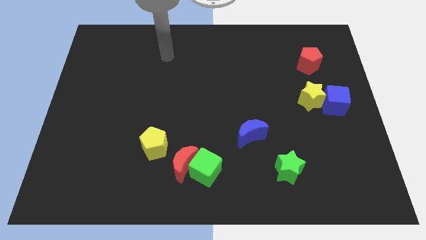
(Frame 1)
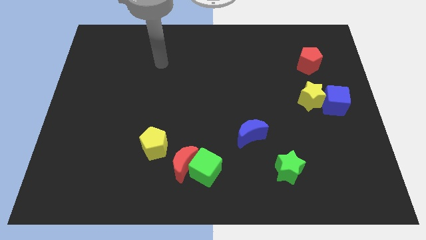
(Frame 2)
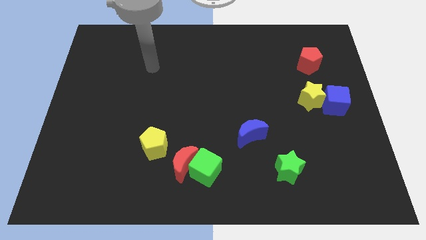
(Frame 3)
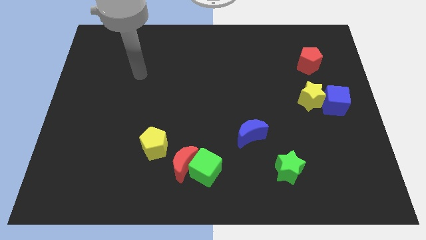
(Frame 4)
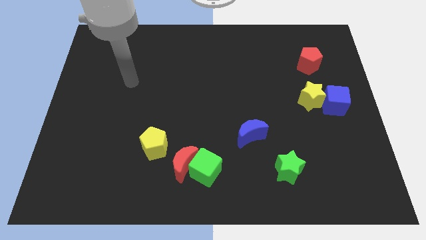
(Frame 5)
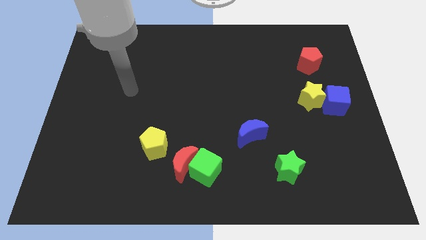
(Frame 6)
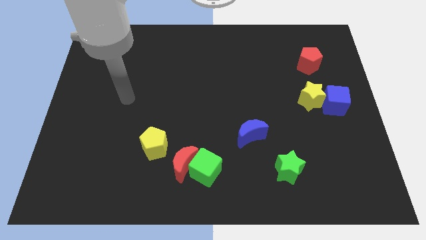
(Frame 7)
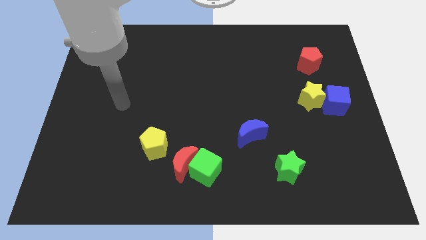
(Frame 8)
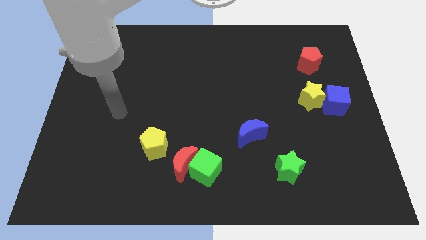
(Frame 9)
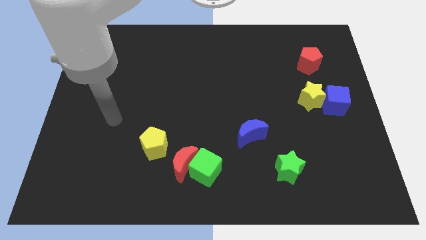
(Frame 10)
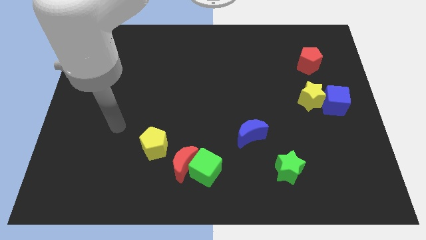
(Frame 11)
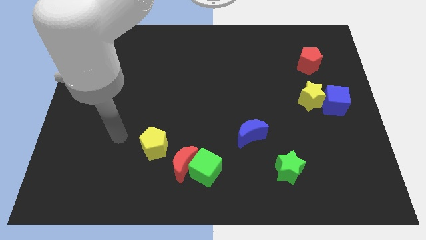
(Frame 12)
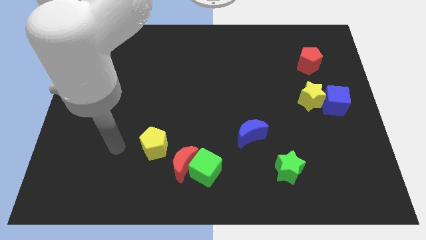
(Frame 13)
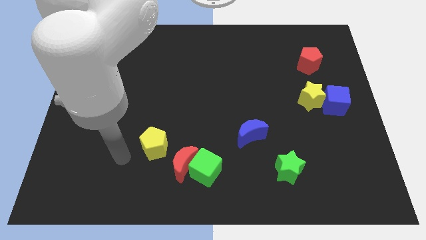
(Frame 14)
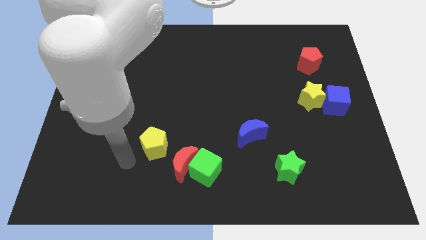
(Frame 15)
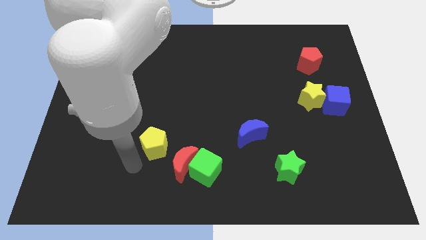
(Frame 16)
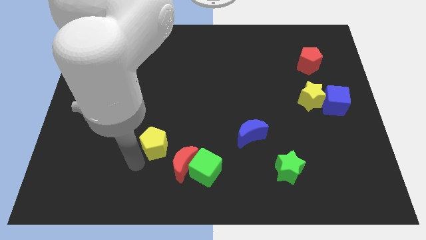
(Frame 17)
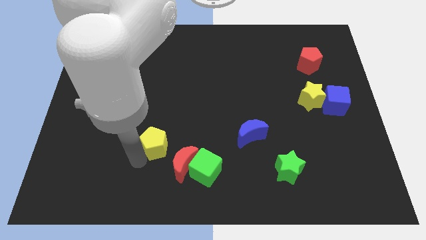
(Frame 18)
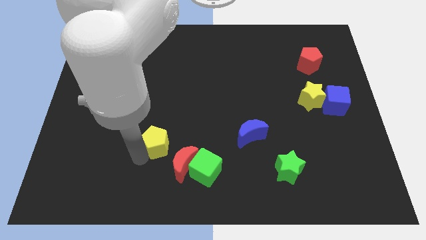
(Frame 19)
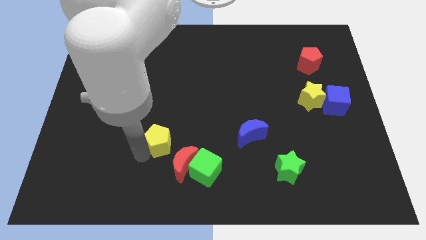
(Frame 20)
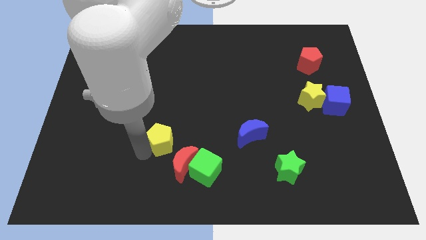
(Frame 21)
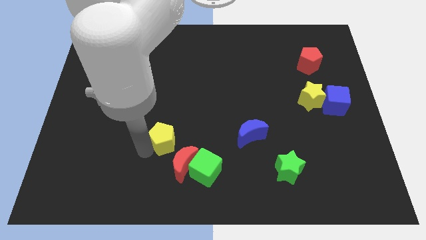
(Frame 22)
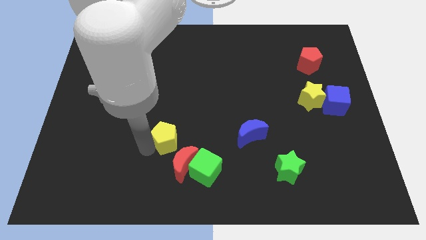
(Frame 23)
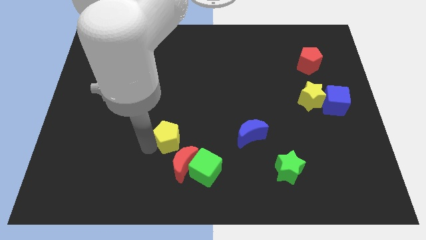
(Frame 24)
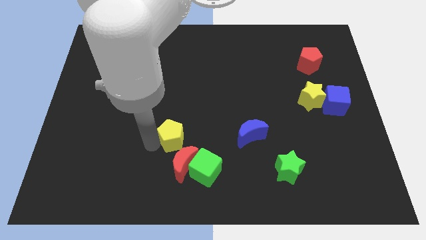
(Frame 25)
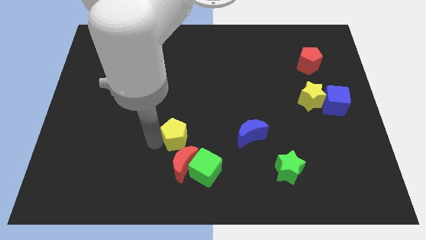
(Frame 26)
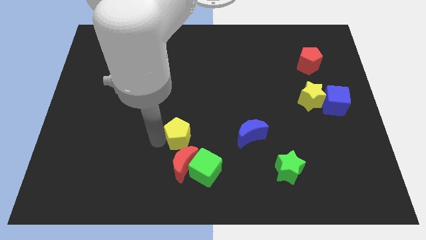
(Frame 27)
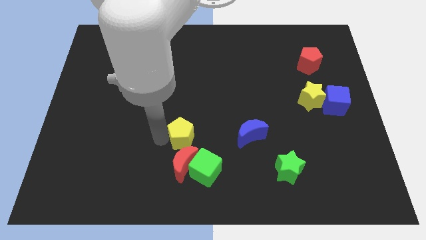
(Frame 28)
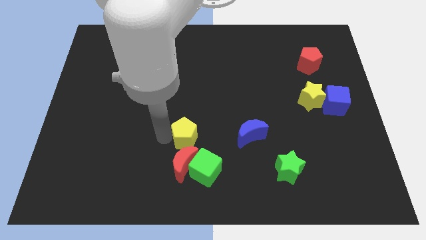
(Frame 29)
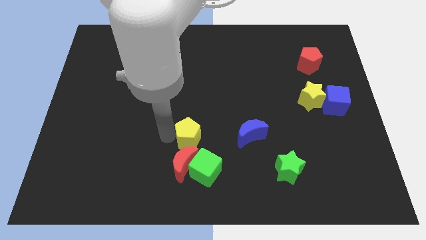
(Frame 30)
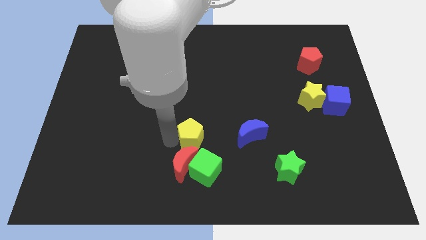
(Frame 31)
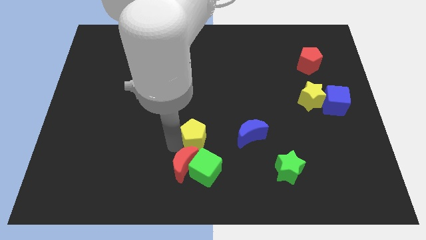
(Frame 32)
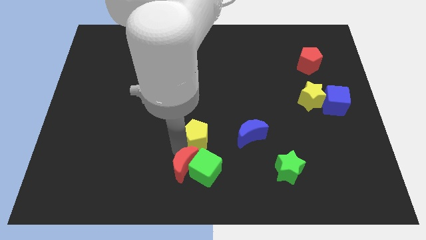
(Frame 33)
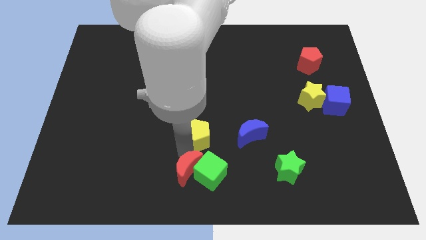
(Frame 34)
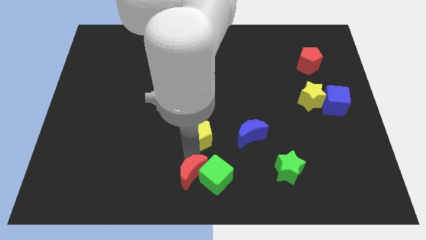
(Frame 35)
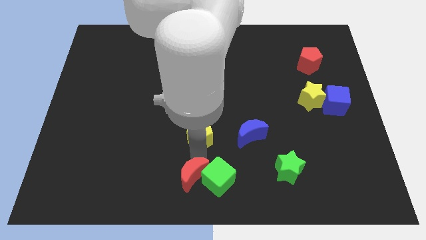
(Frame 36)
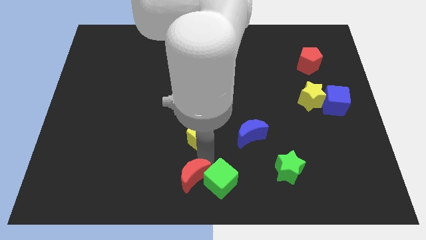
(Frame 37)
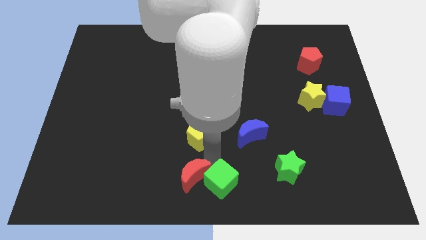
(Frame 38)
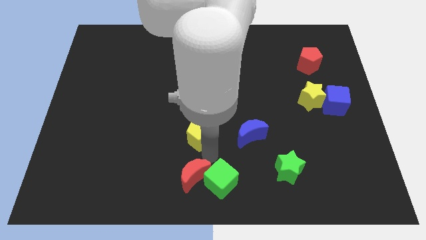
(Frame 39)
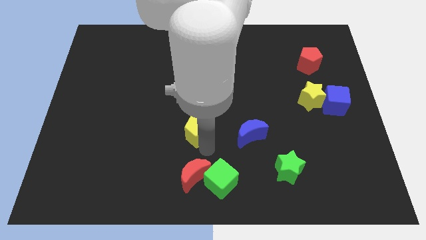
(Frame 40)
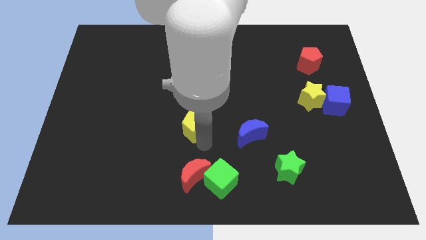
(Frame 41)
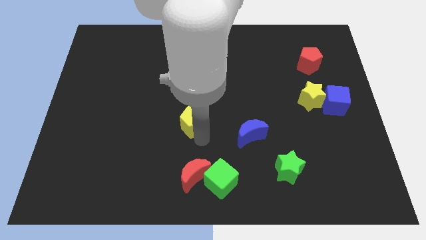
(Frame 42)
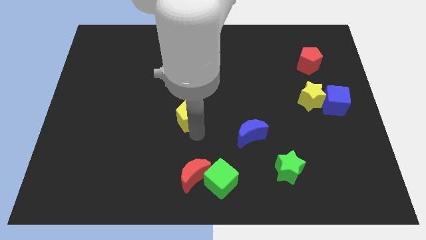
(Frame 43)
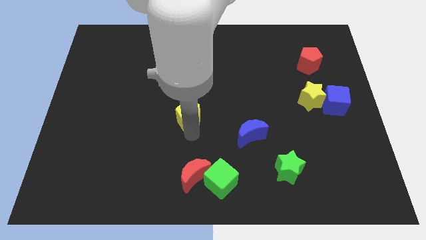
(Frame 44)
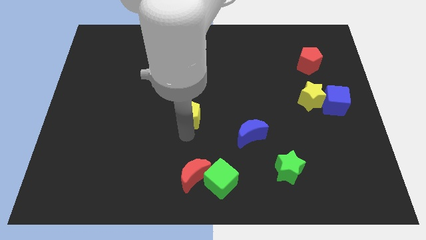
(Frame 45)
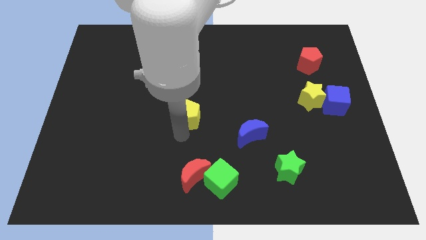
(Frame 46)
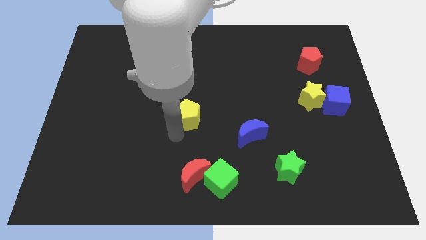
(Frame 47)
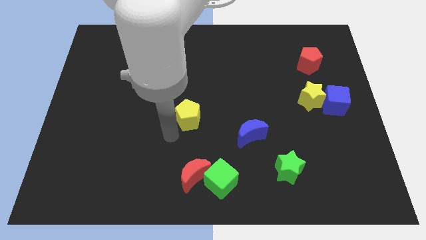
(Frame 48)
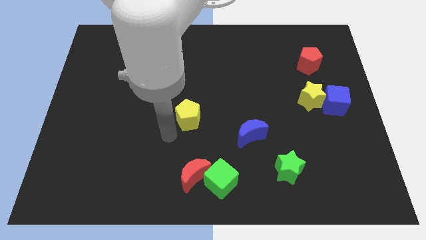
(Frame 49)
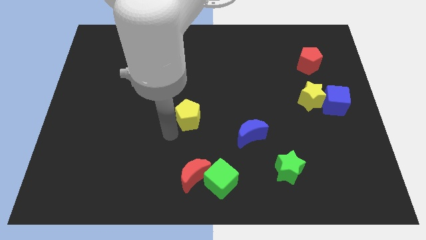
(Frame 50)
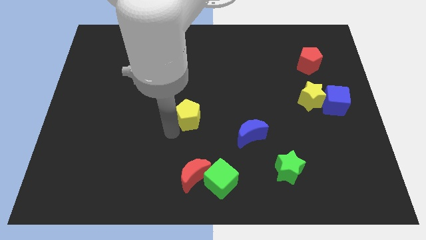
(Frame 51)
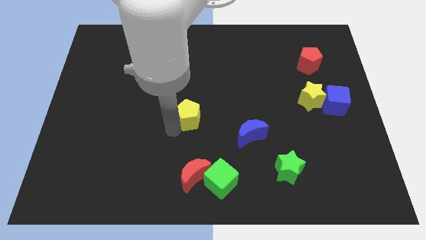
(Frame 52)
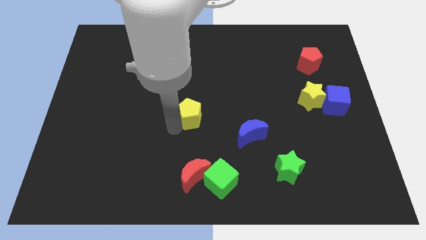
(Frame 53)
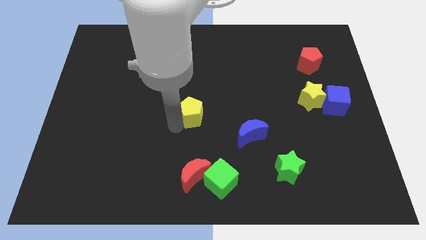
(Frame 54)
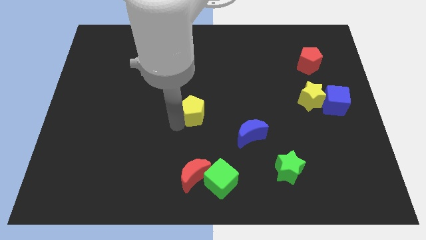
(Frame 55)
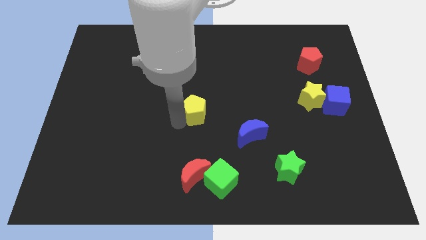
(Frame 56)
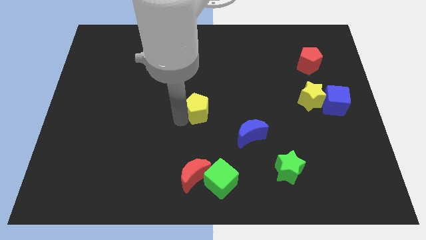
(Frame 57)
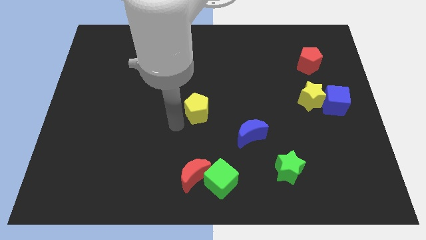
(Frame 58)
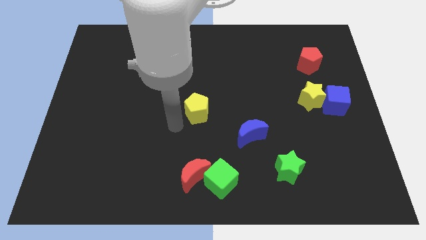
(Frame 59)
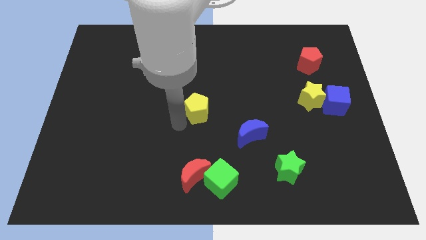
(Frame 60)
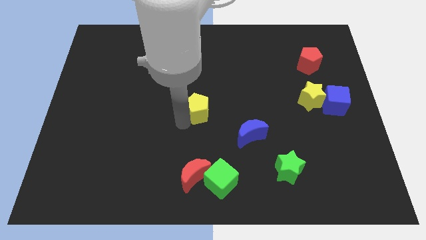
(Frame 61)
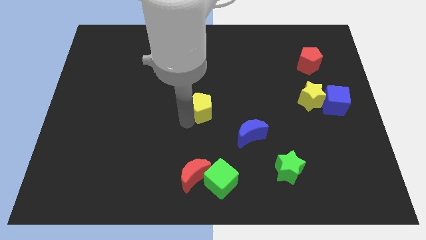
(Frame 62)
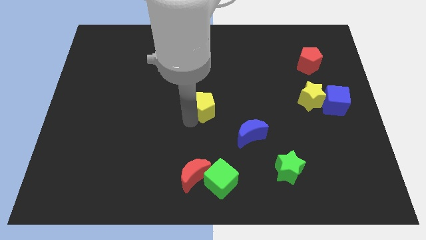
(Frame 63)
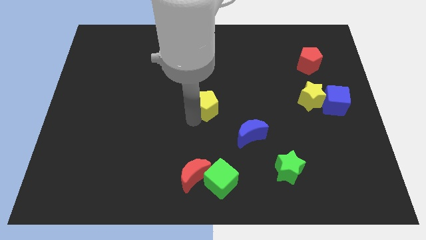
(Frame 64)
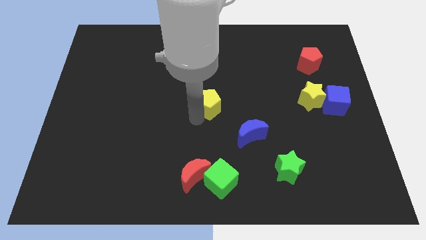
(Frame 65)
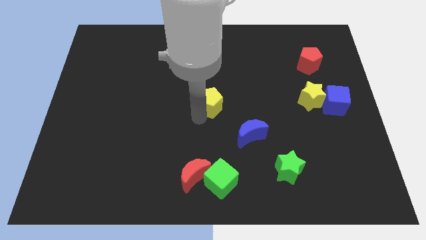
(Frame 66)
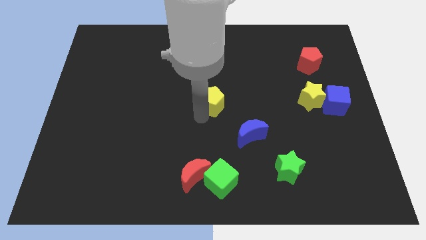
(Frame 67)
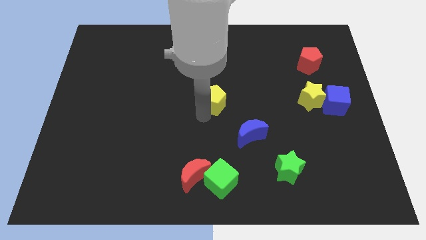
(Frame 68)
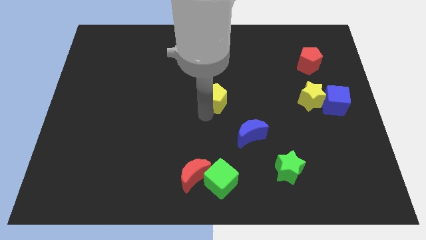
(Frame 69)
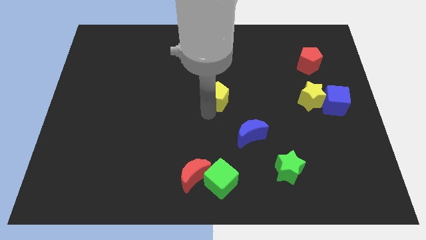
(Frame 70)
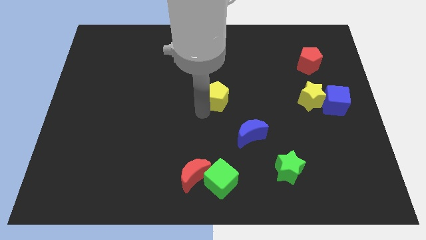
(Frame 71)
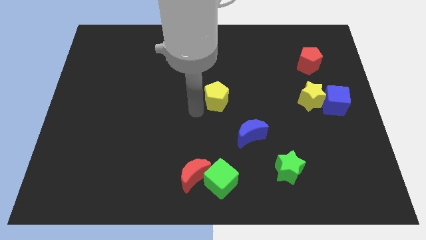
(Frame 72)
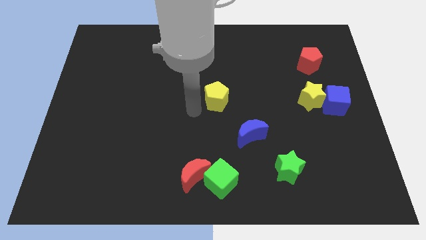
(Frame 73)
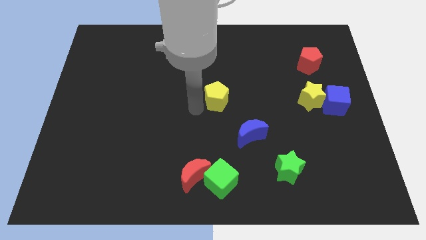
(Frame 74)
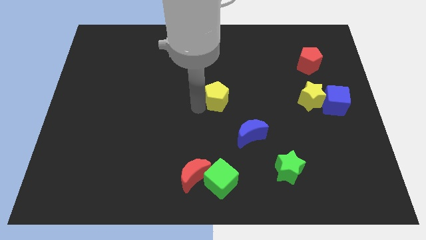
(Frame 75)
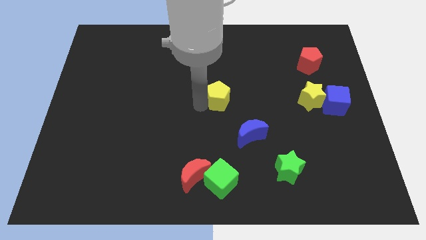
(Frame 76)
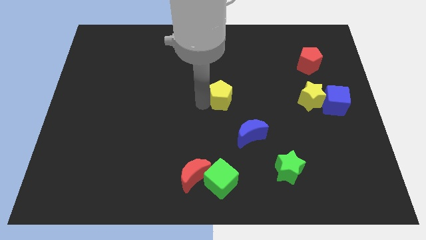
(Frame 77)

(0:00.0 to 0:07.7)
slide the yellow pentagon upwards and then to the right

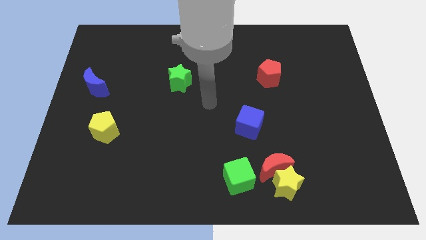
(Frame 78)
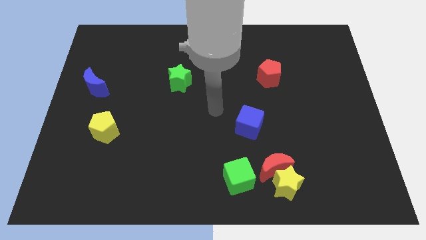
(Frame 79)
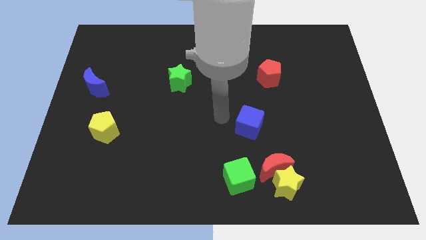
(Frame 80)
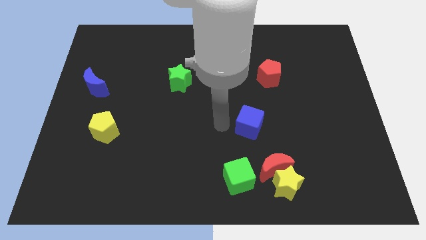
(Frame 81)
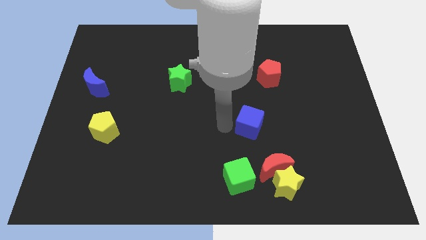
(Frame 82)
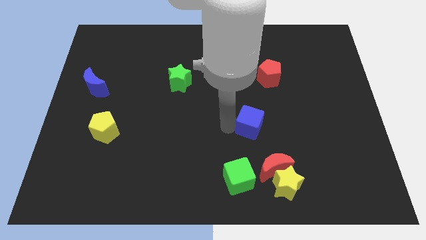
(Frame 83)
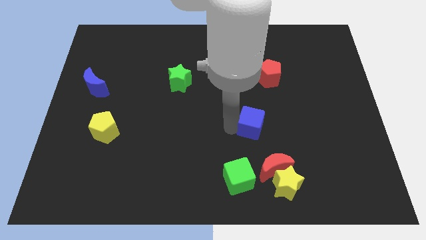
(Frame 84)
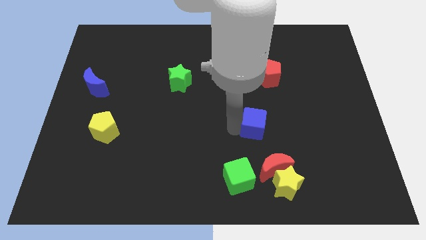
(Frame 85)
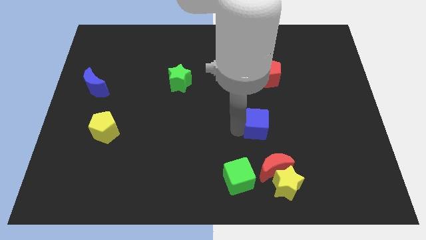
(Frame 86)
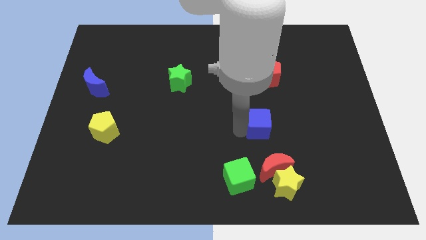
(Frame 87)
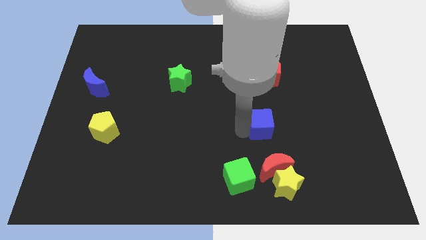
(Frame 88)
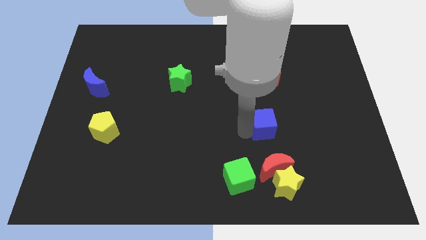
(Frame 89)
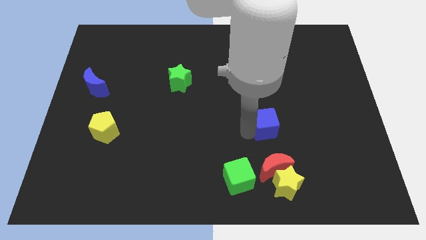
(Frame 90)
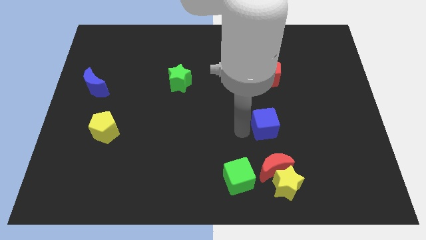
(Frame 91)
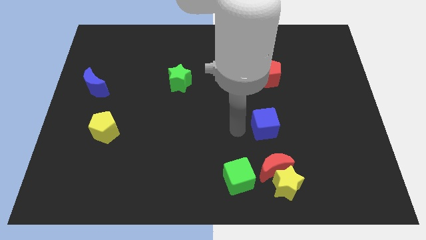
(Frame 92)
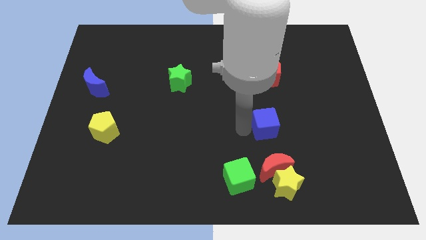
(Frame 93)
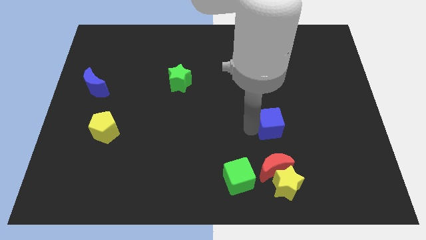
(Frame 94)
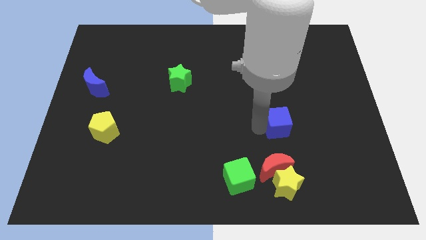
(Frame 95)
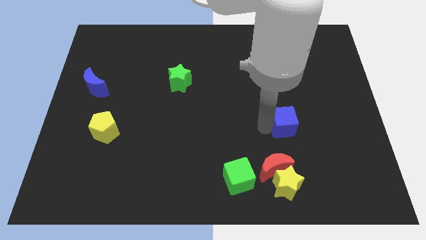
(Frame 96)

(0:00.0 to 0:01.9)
slightly move the blue cube to the right
